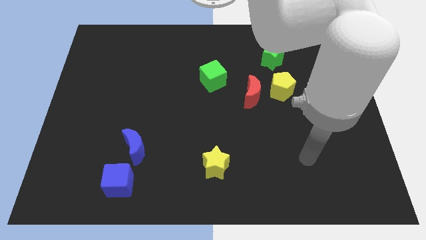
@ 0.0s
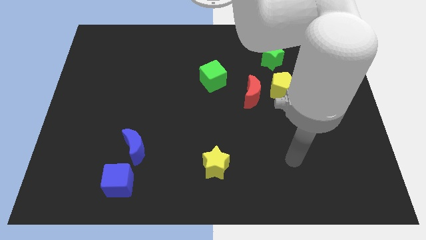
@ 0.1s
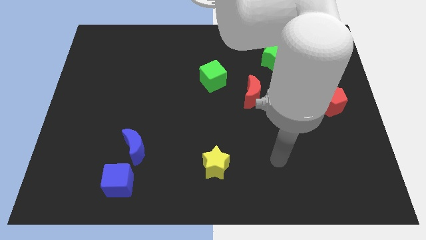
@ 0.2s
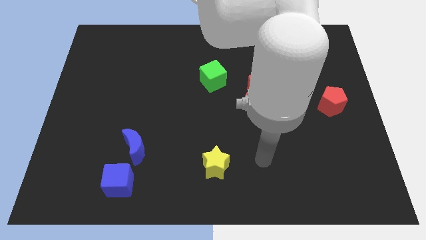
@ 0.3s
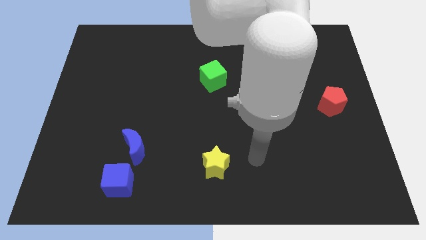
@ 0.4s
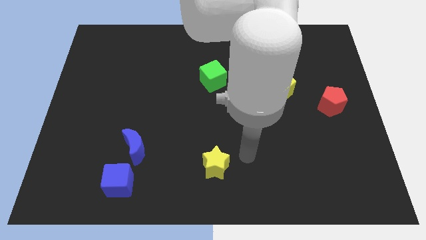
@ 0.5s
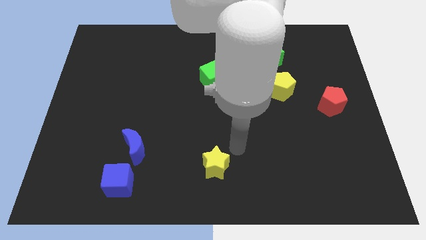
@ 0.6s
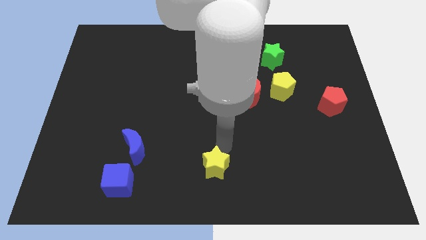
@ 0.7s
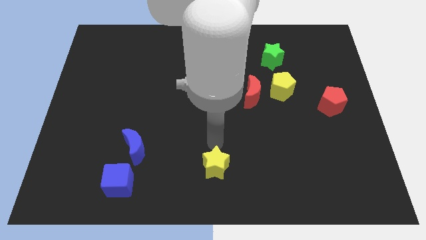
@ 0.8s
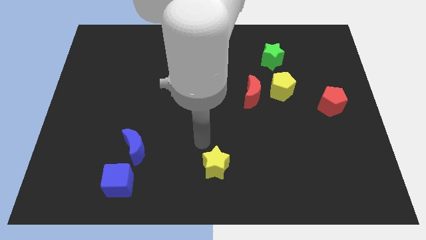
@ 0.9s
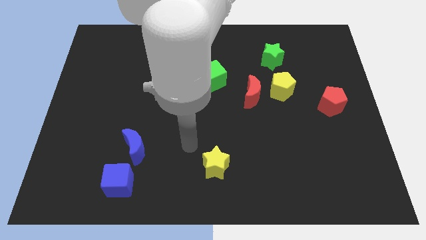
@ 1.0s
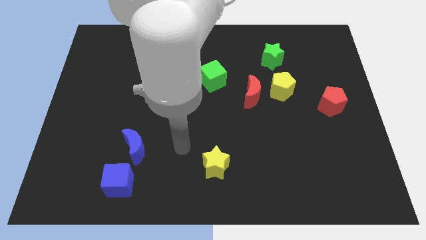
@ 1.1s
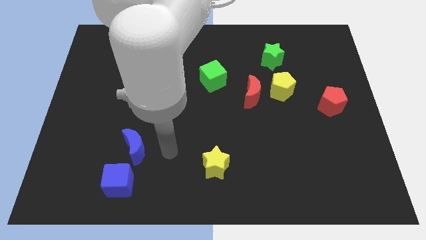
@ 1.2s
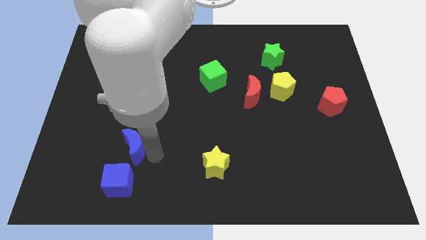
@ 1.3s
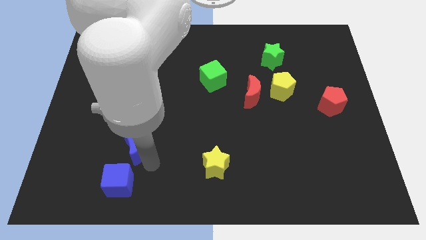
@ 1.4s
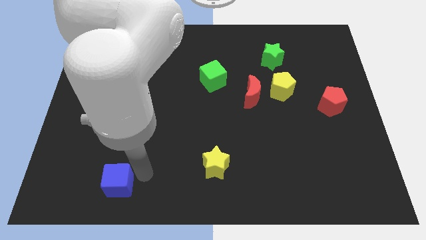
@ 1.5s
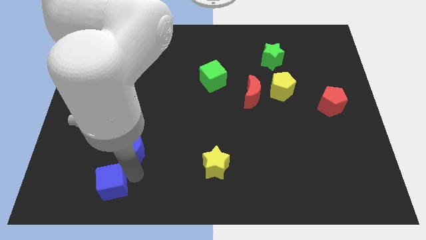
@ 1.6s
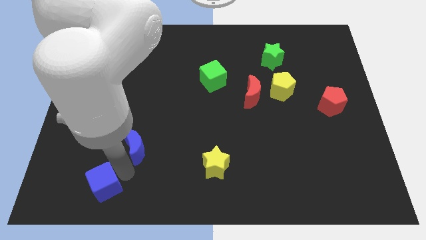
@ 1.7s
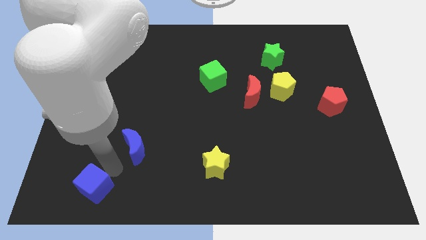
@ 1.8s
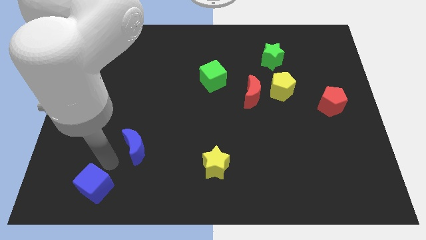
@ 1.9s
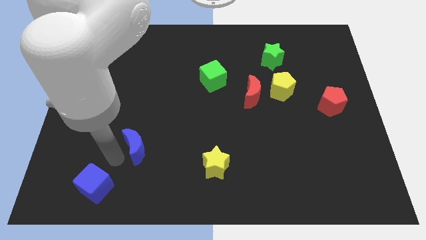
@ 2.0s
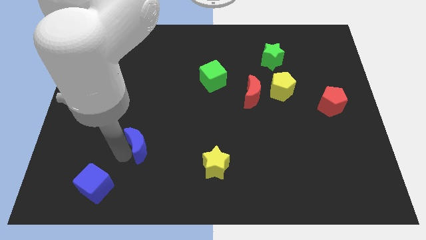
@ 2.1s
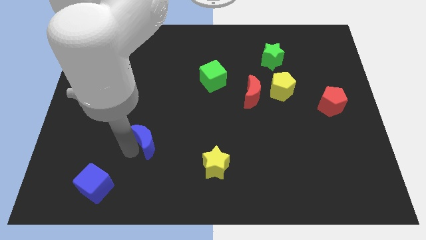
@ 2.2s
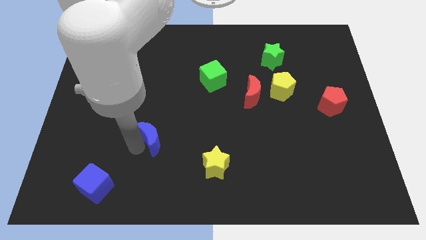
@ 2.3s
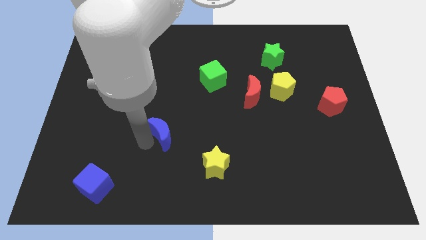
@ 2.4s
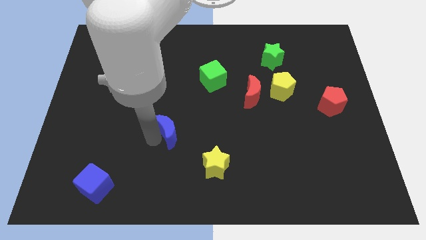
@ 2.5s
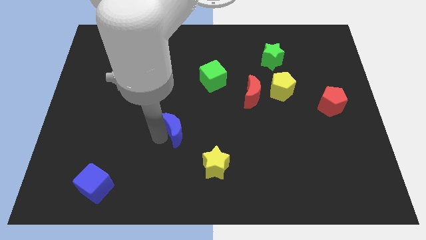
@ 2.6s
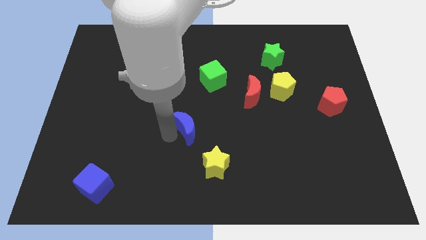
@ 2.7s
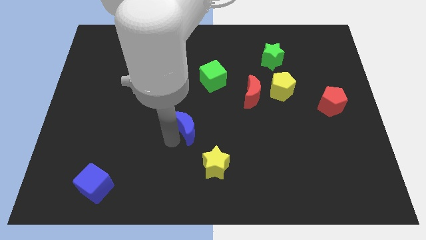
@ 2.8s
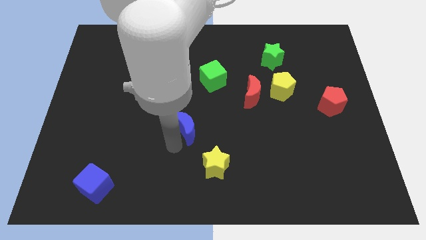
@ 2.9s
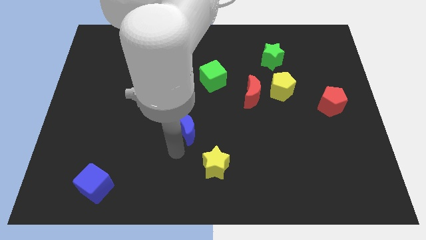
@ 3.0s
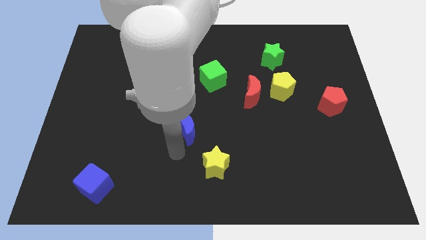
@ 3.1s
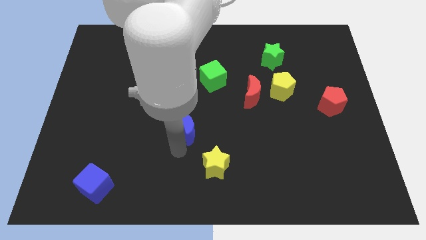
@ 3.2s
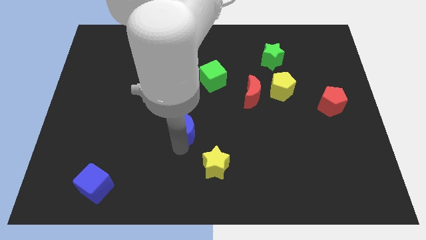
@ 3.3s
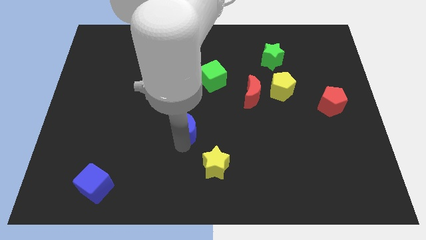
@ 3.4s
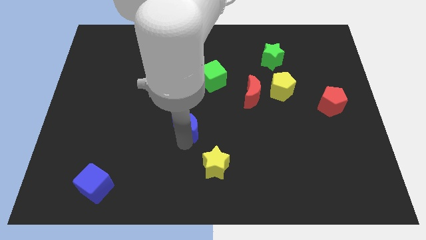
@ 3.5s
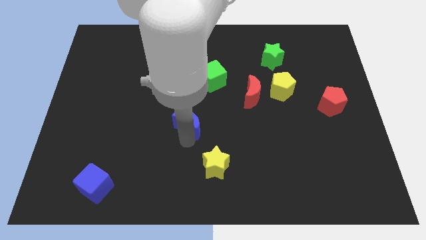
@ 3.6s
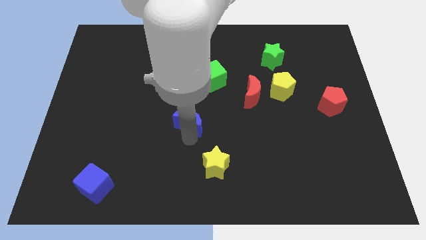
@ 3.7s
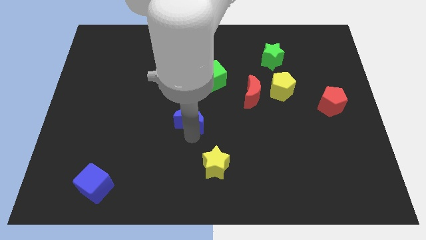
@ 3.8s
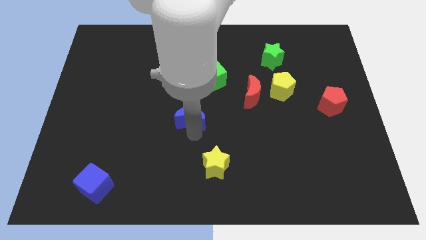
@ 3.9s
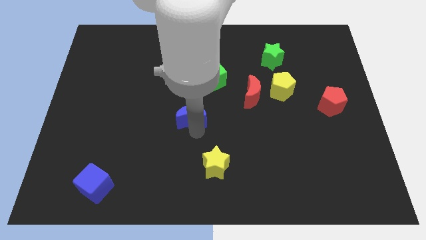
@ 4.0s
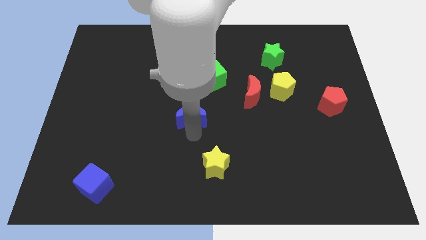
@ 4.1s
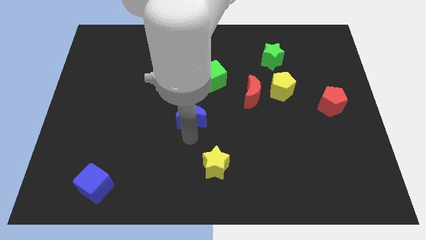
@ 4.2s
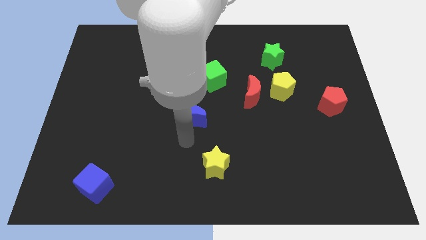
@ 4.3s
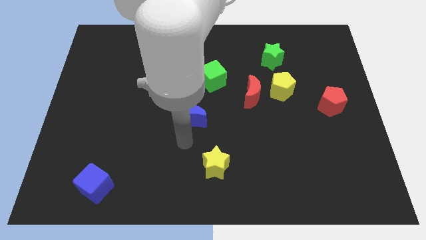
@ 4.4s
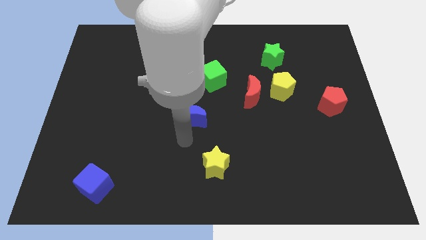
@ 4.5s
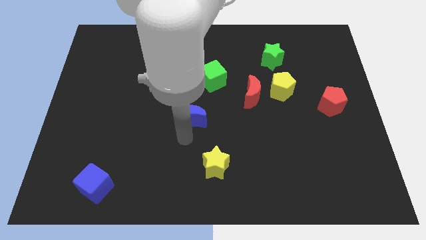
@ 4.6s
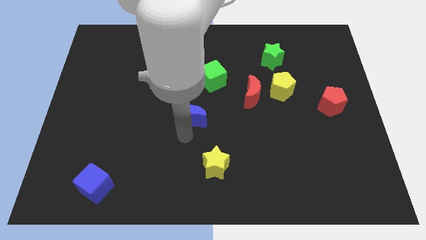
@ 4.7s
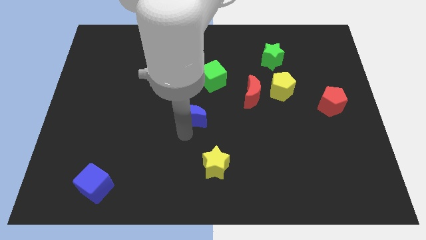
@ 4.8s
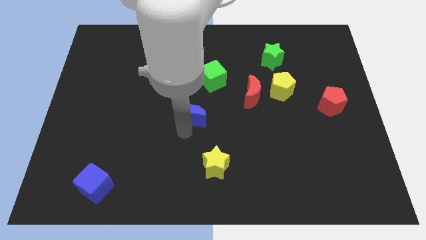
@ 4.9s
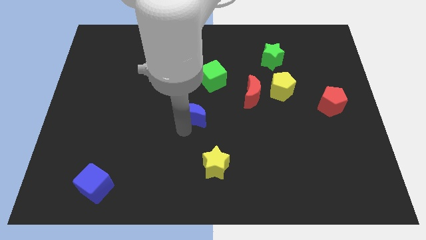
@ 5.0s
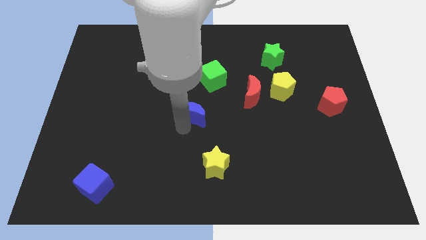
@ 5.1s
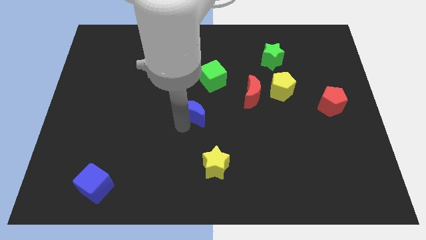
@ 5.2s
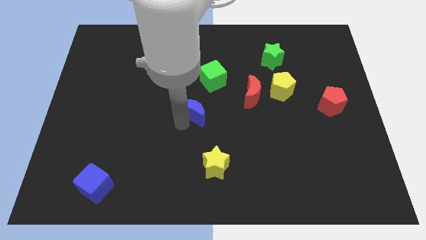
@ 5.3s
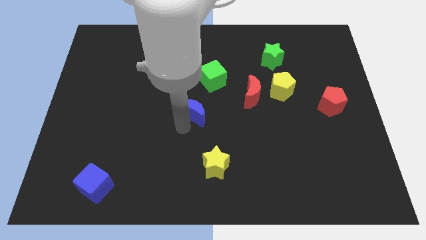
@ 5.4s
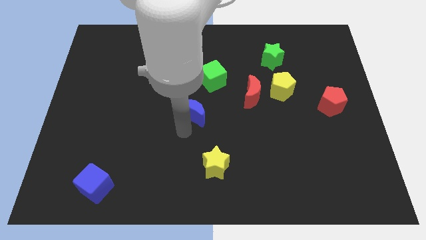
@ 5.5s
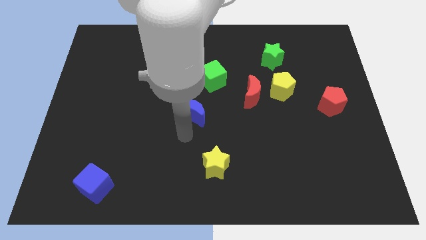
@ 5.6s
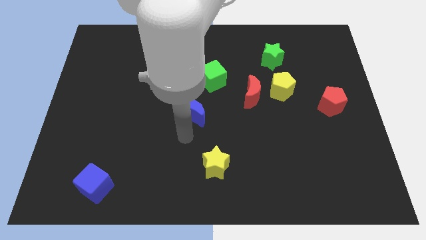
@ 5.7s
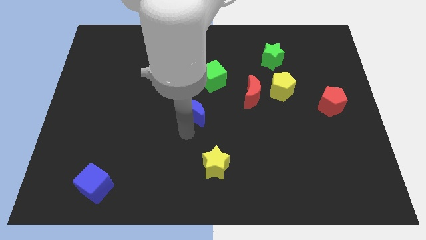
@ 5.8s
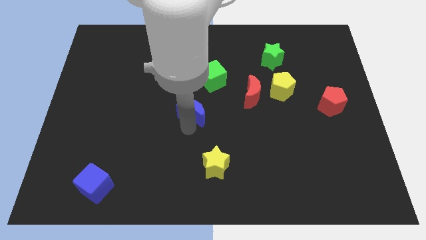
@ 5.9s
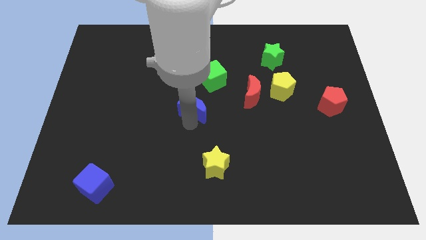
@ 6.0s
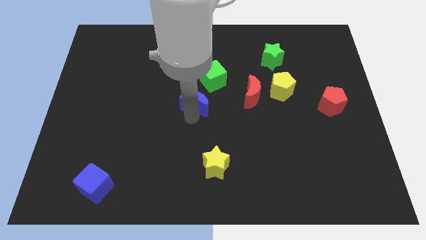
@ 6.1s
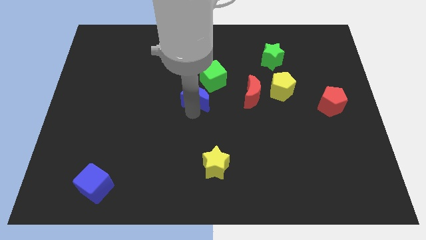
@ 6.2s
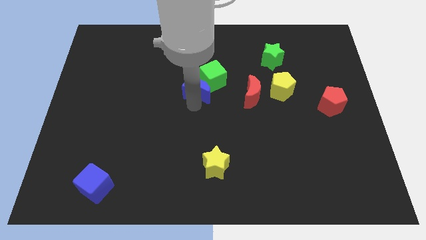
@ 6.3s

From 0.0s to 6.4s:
push the blue moon close to the green cube

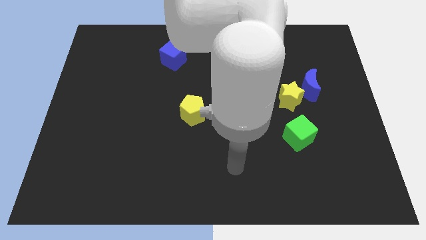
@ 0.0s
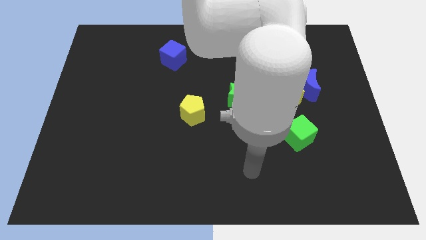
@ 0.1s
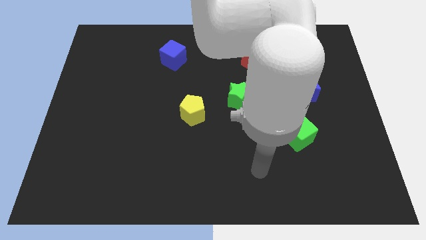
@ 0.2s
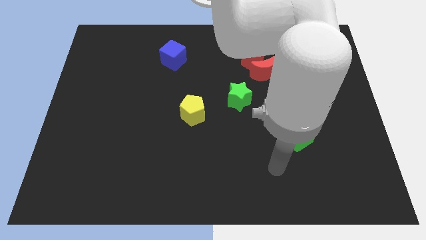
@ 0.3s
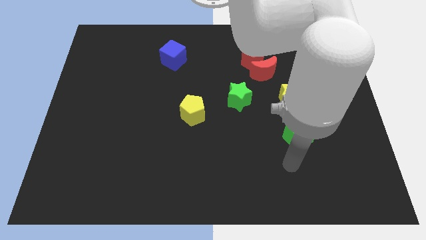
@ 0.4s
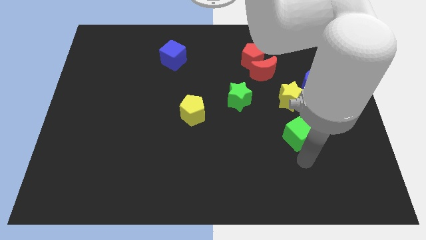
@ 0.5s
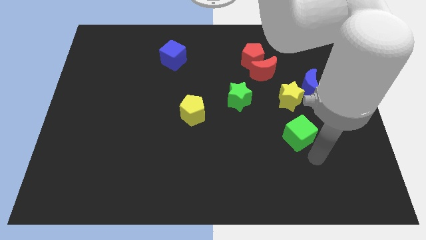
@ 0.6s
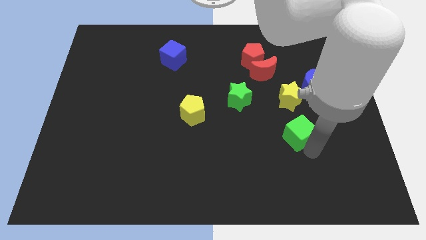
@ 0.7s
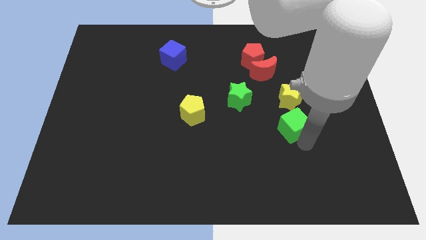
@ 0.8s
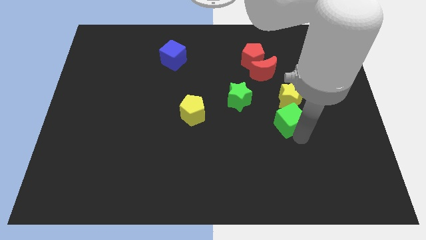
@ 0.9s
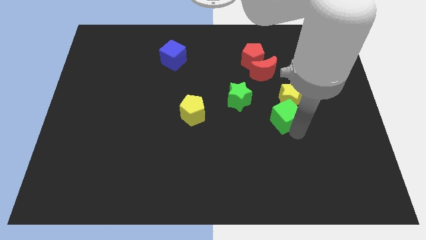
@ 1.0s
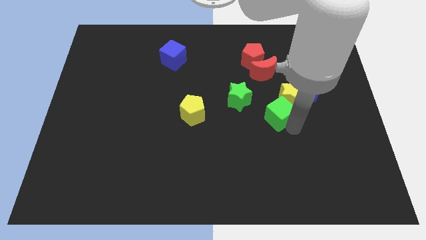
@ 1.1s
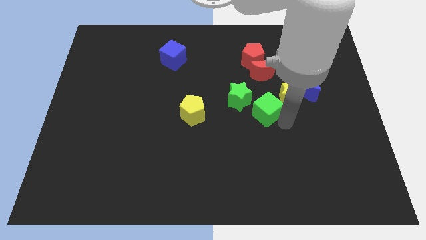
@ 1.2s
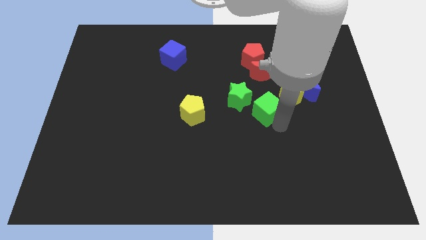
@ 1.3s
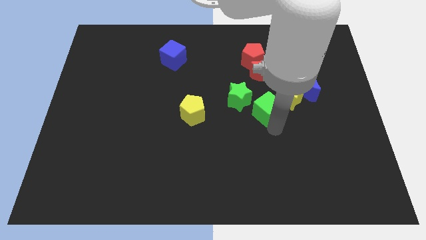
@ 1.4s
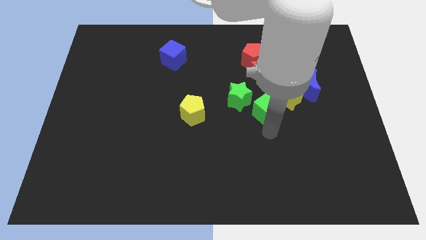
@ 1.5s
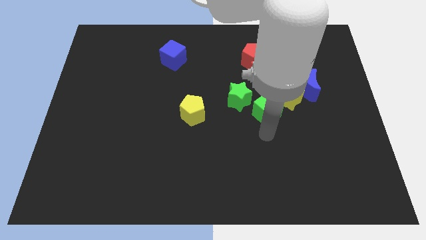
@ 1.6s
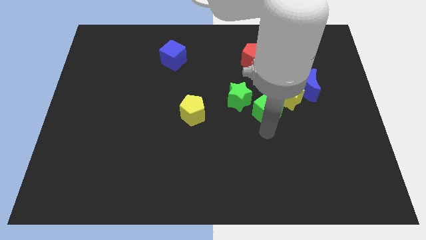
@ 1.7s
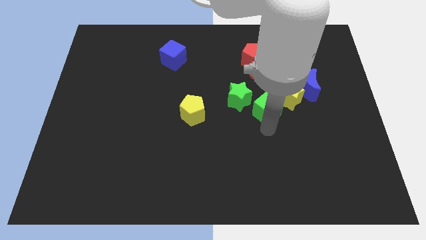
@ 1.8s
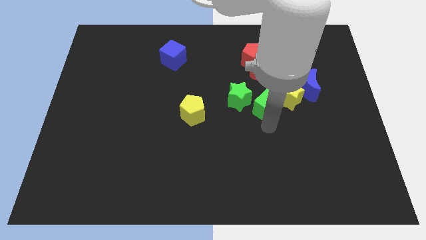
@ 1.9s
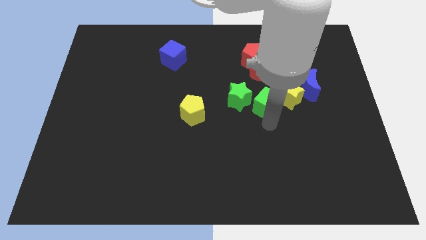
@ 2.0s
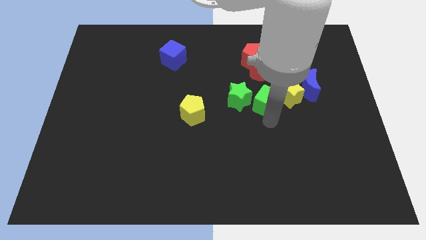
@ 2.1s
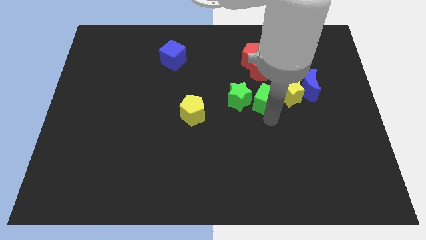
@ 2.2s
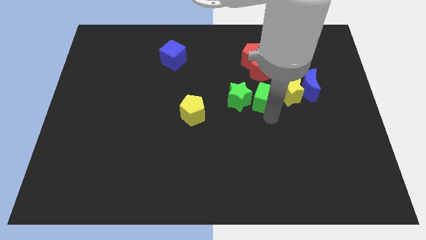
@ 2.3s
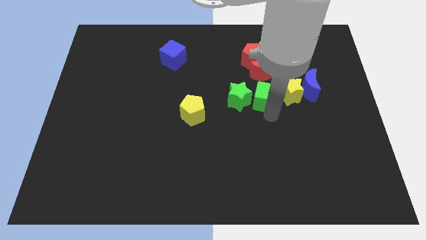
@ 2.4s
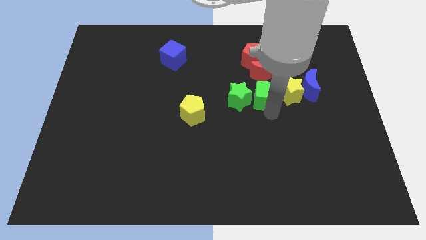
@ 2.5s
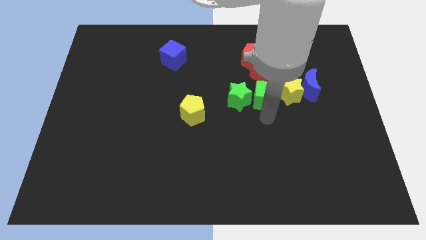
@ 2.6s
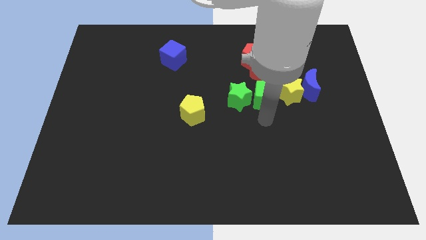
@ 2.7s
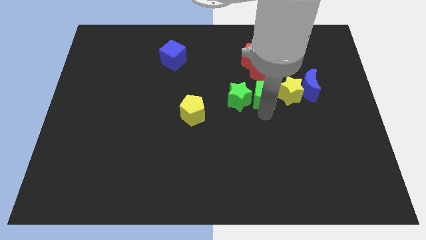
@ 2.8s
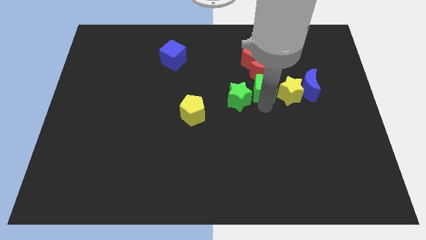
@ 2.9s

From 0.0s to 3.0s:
push the green cube towards the red moon
